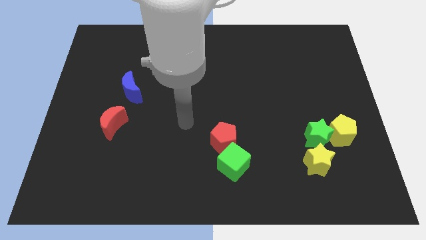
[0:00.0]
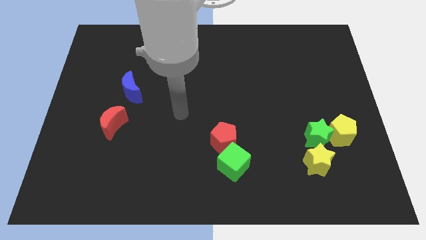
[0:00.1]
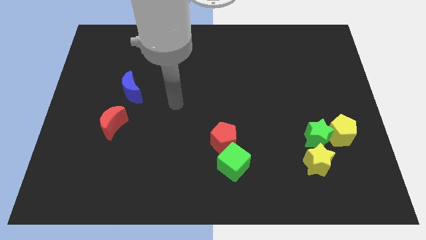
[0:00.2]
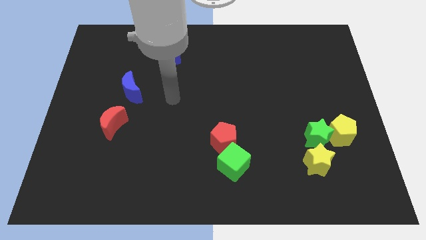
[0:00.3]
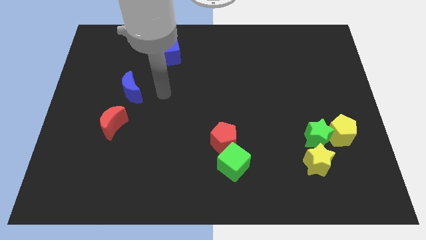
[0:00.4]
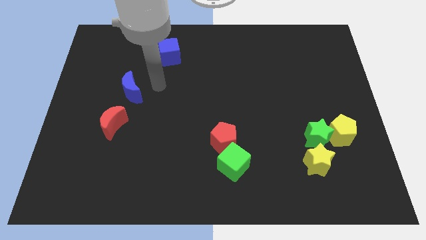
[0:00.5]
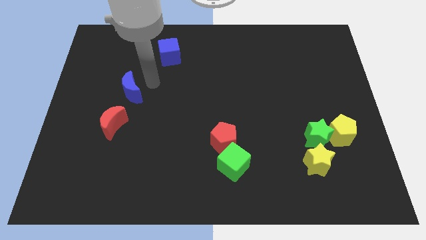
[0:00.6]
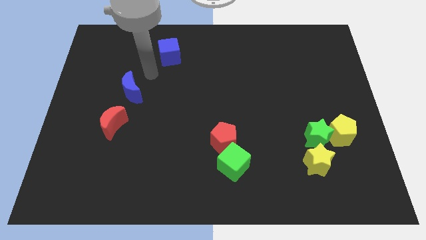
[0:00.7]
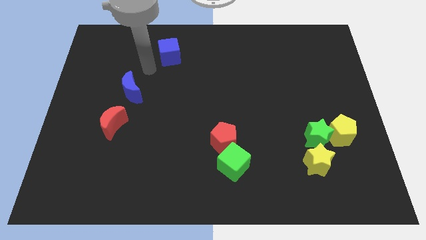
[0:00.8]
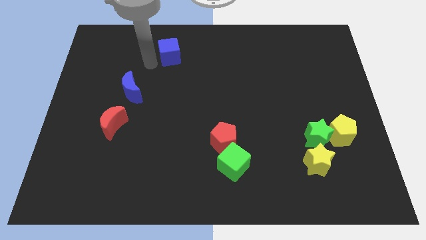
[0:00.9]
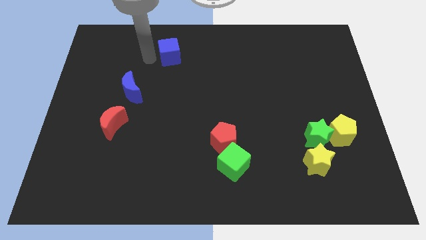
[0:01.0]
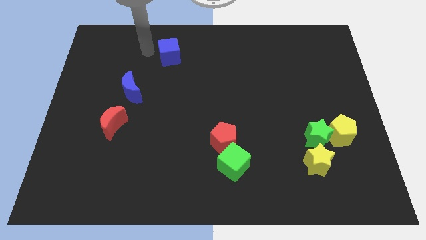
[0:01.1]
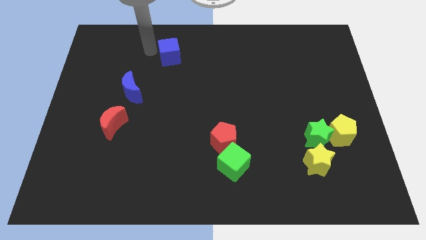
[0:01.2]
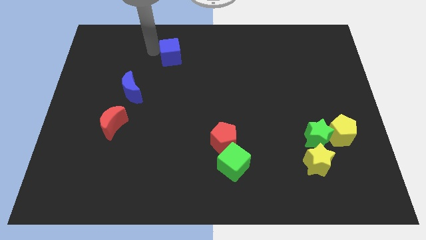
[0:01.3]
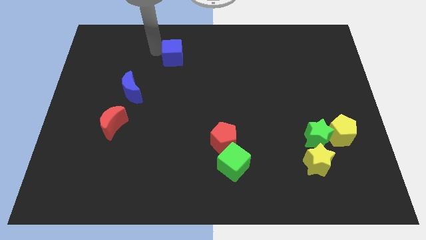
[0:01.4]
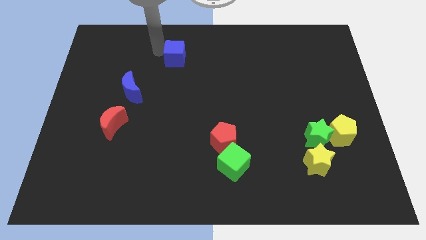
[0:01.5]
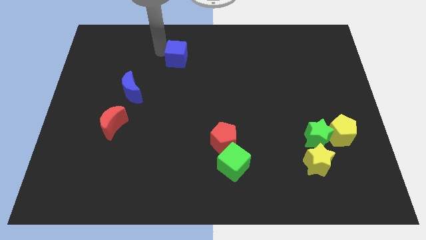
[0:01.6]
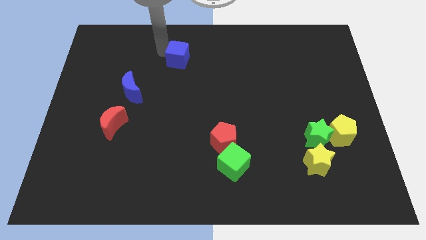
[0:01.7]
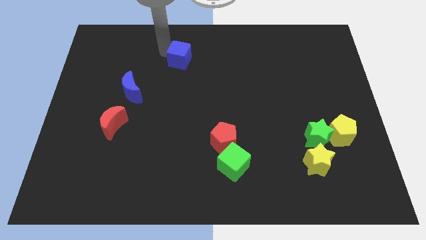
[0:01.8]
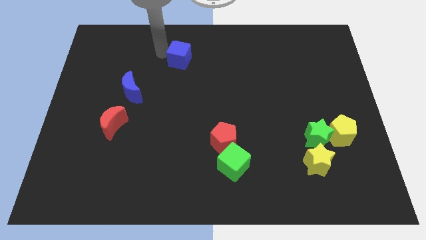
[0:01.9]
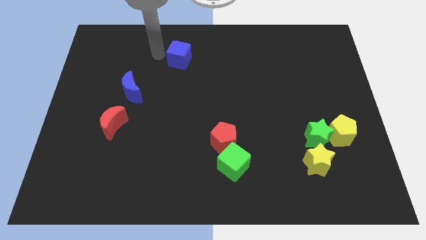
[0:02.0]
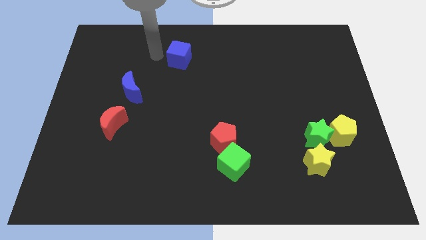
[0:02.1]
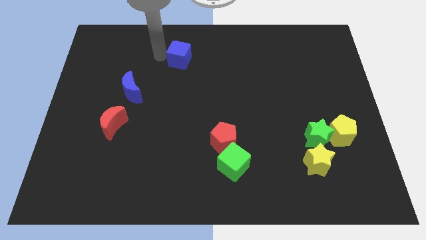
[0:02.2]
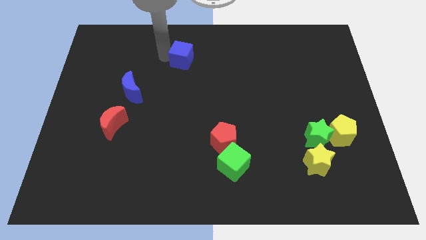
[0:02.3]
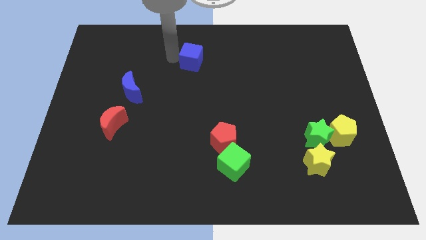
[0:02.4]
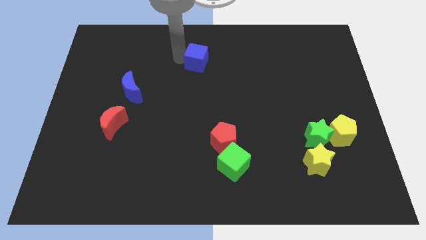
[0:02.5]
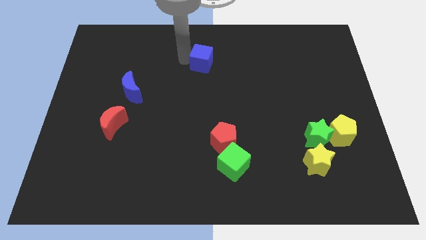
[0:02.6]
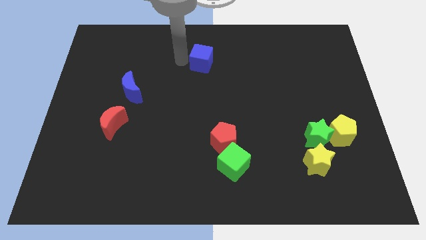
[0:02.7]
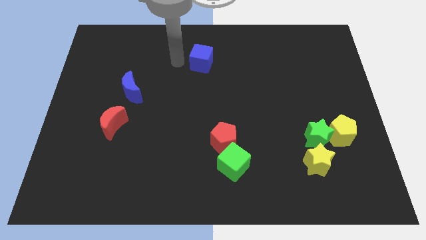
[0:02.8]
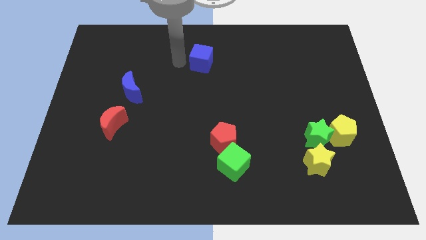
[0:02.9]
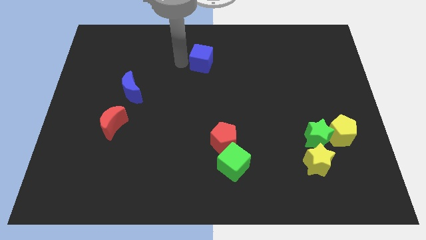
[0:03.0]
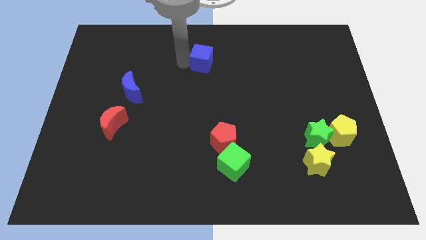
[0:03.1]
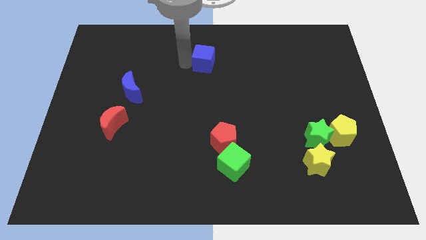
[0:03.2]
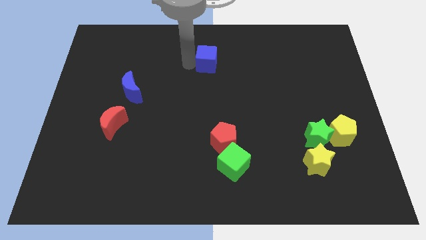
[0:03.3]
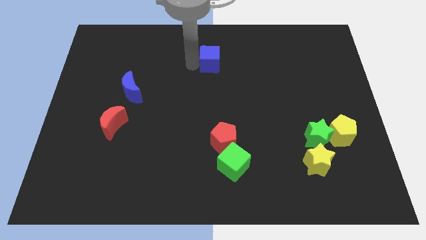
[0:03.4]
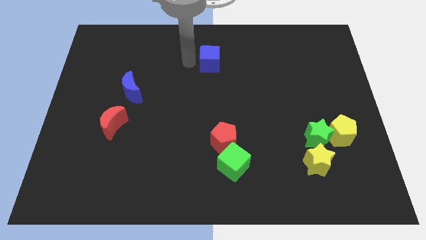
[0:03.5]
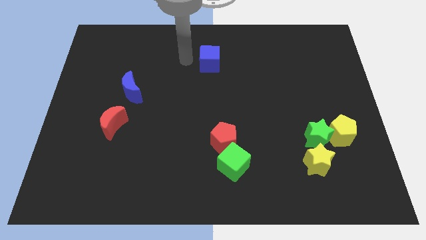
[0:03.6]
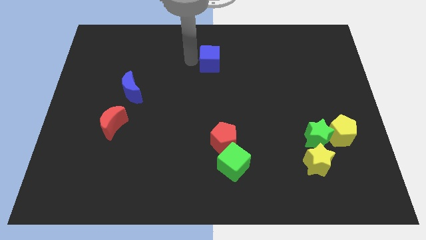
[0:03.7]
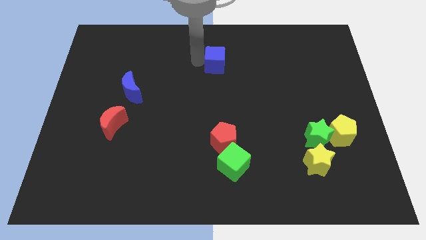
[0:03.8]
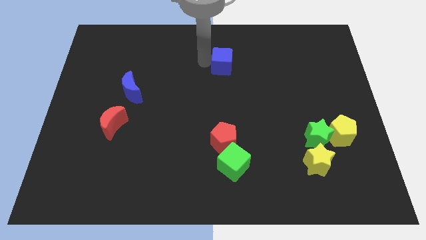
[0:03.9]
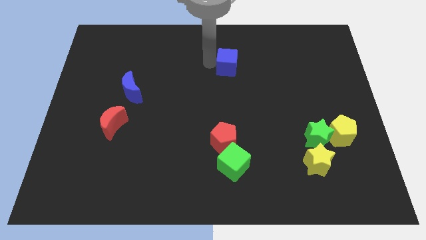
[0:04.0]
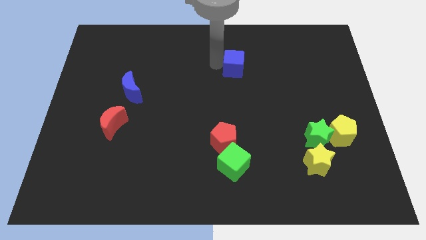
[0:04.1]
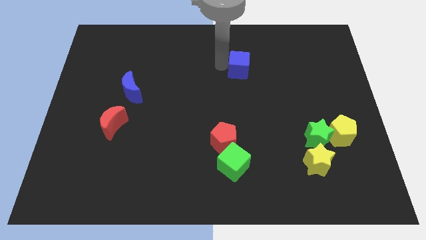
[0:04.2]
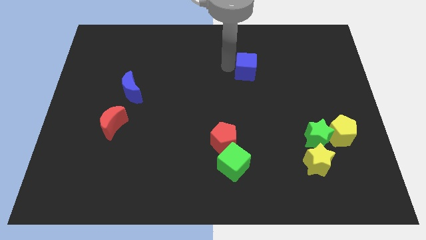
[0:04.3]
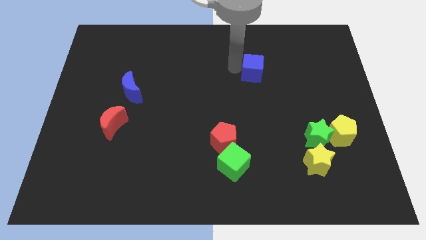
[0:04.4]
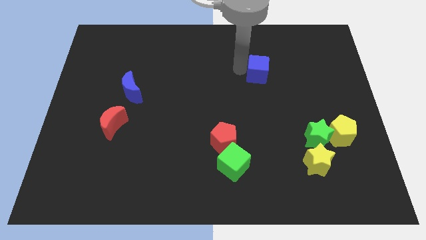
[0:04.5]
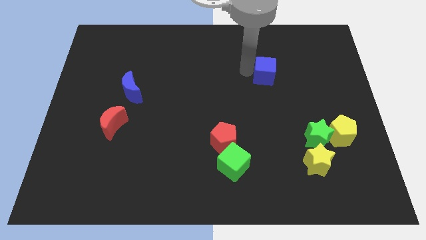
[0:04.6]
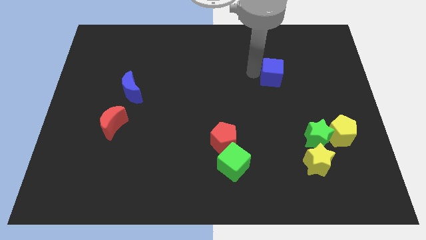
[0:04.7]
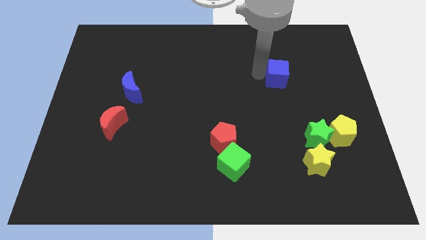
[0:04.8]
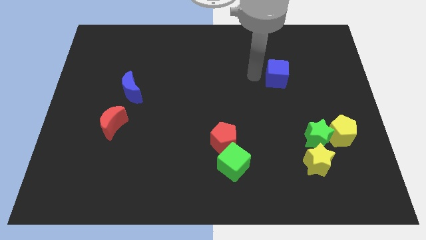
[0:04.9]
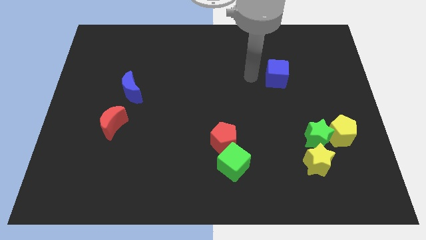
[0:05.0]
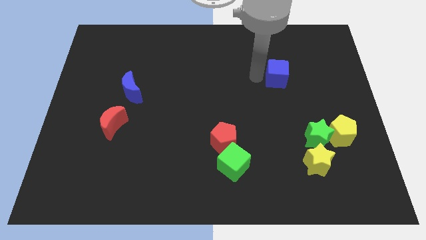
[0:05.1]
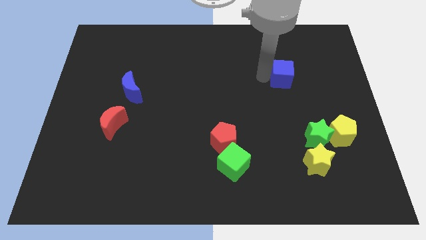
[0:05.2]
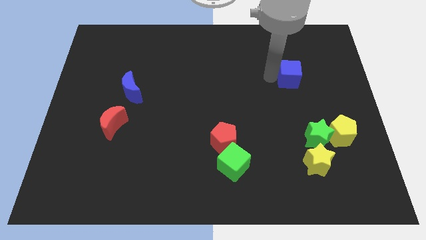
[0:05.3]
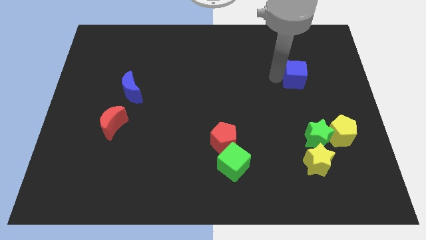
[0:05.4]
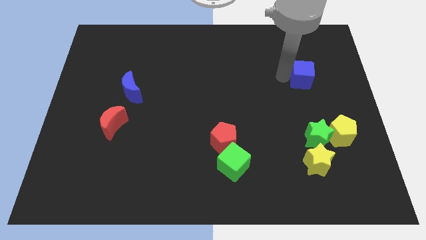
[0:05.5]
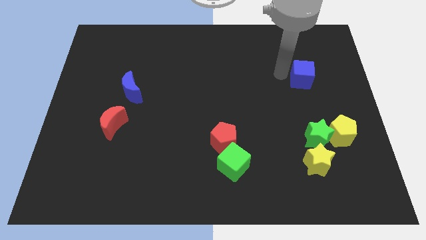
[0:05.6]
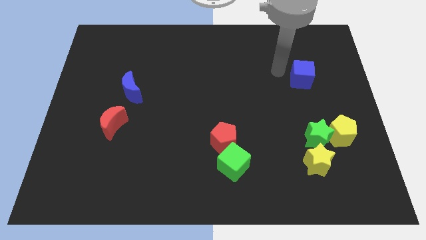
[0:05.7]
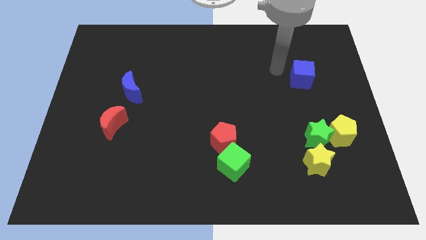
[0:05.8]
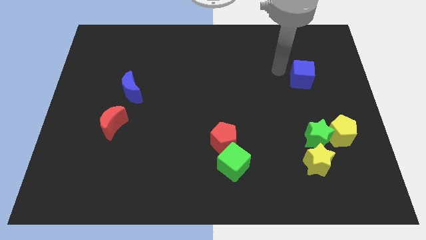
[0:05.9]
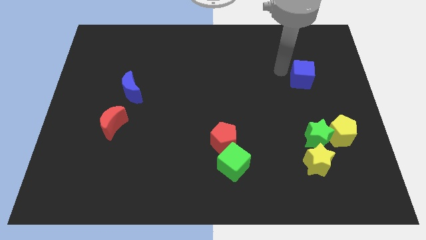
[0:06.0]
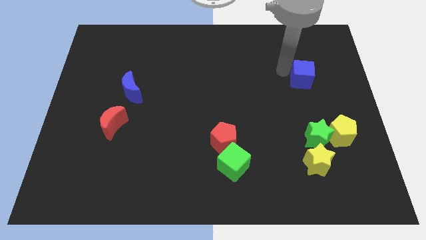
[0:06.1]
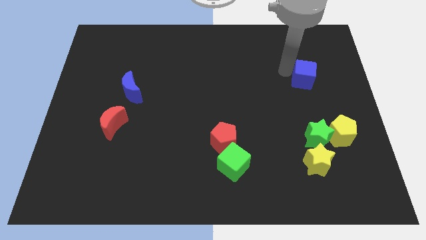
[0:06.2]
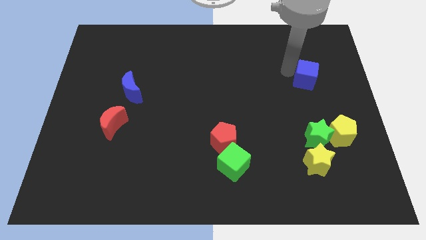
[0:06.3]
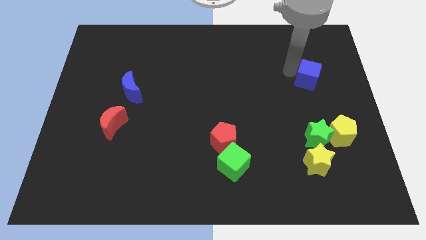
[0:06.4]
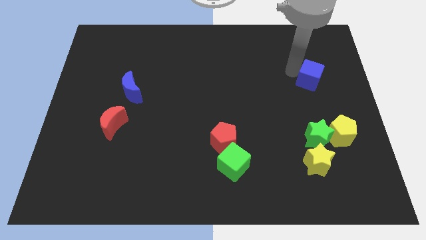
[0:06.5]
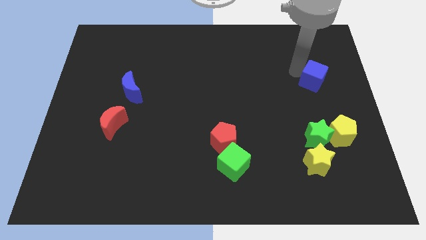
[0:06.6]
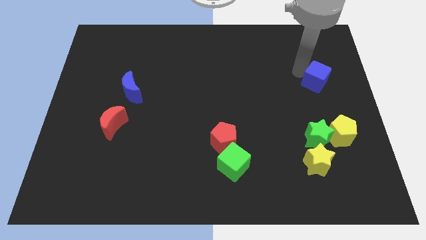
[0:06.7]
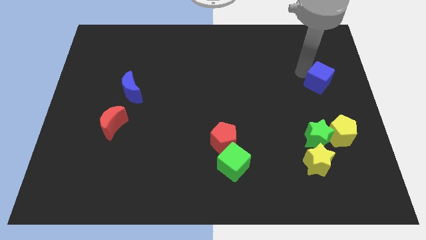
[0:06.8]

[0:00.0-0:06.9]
slide the blue cube to the center right

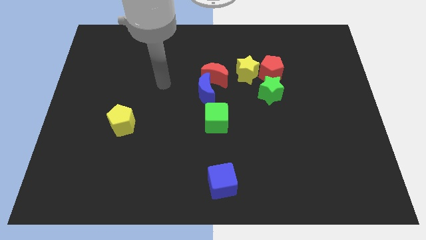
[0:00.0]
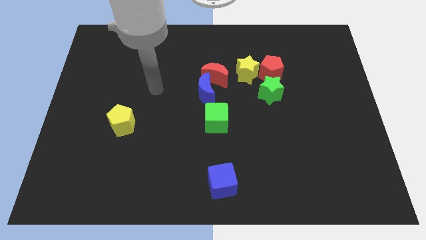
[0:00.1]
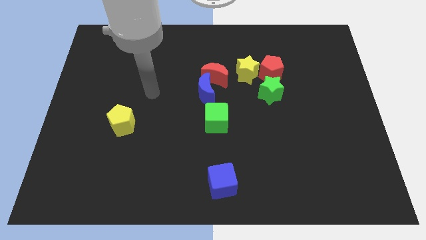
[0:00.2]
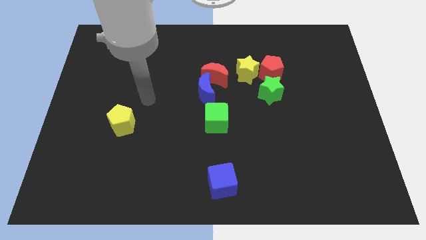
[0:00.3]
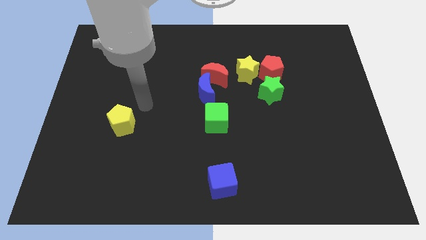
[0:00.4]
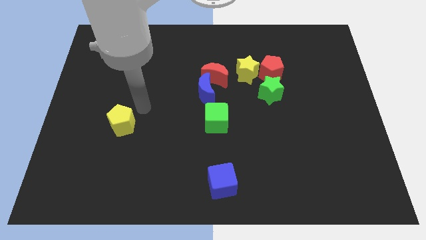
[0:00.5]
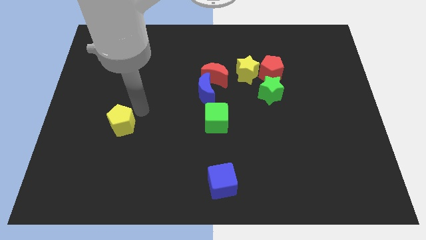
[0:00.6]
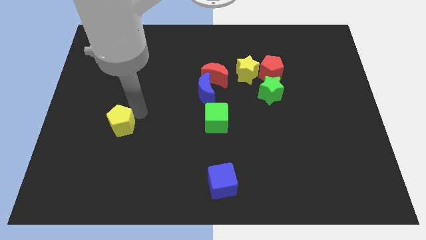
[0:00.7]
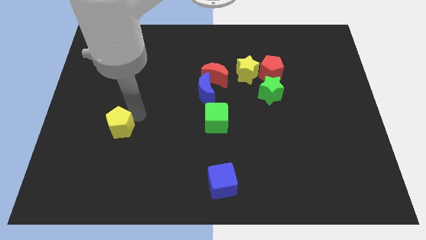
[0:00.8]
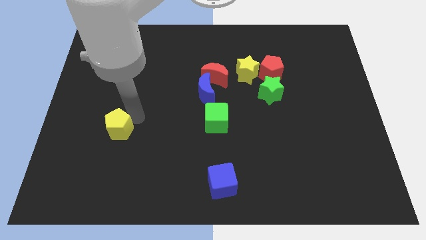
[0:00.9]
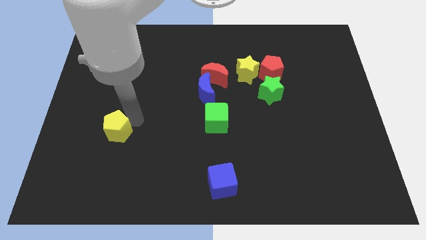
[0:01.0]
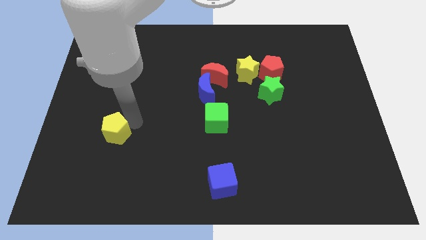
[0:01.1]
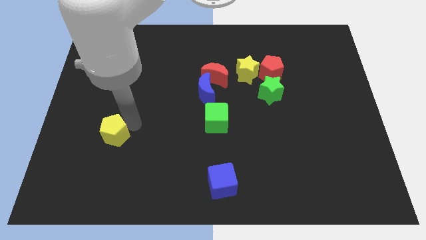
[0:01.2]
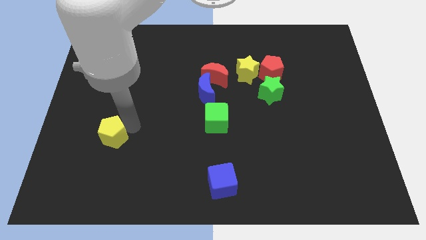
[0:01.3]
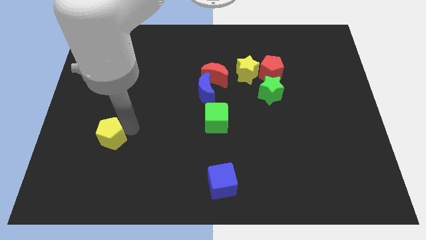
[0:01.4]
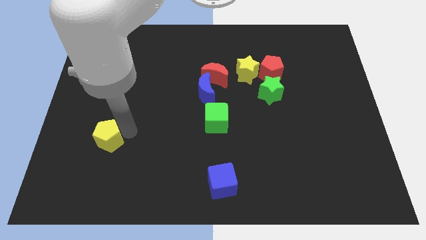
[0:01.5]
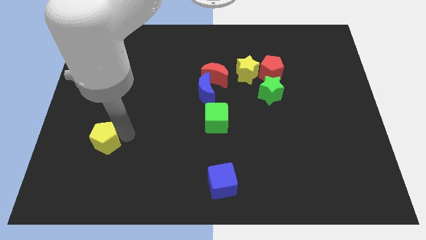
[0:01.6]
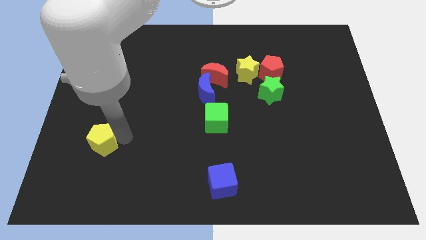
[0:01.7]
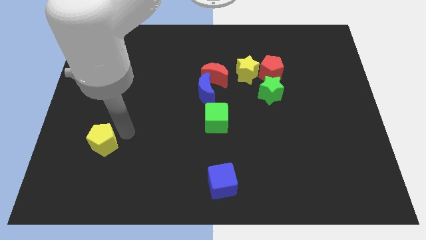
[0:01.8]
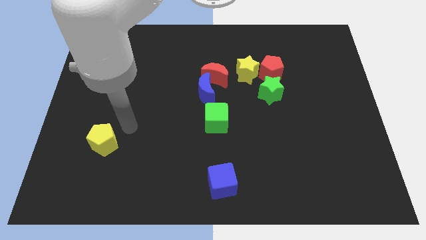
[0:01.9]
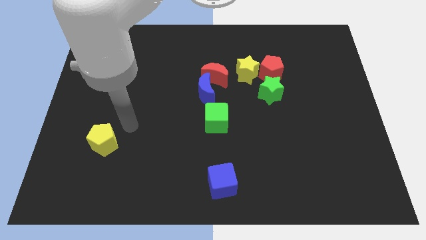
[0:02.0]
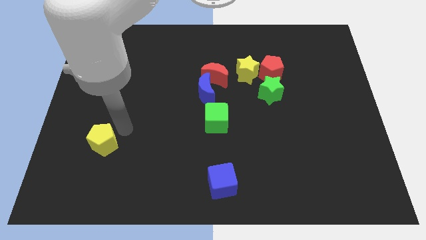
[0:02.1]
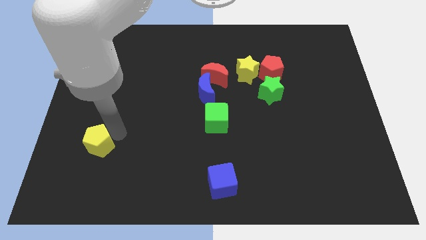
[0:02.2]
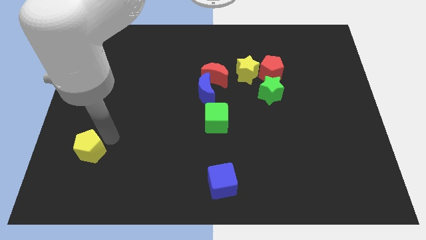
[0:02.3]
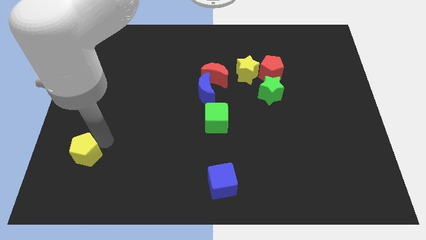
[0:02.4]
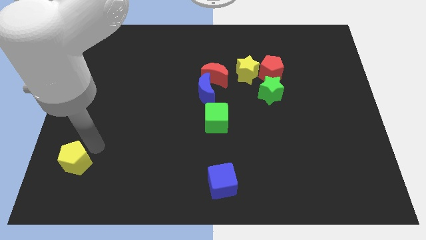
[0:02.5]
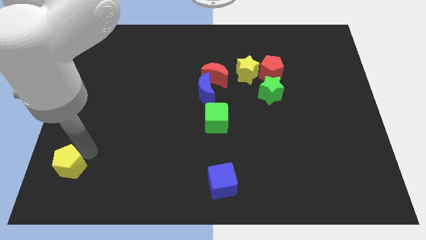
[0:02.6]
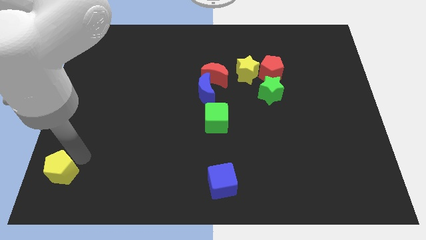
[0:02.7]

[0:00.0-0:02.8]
move the yellow pentagon to the bottom left of the board
